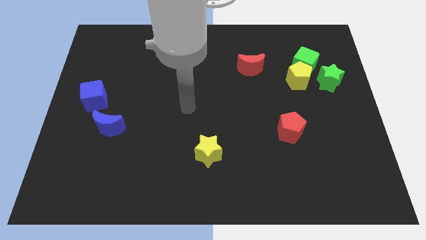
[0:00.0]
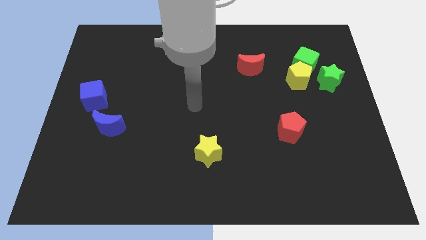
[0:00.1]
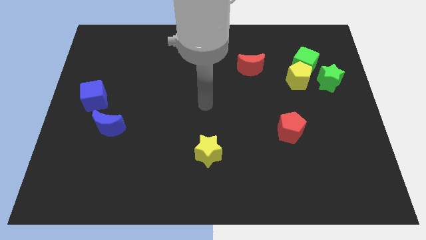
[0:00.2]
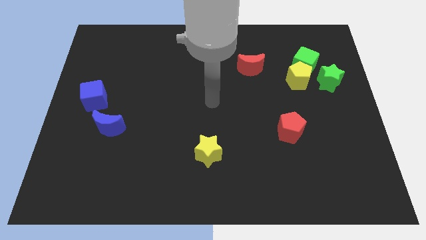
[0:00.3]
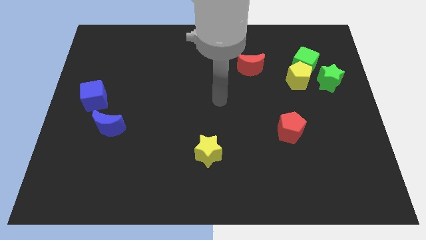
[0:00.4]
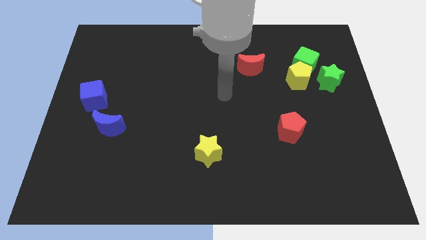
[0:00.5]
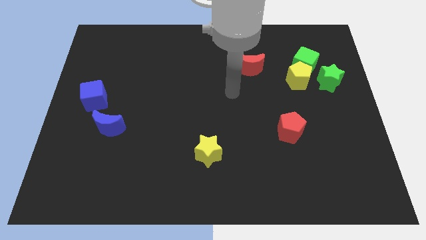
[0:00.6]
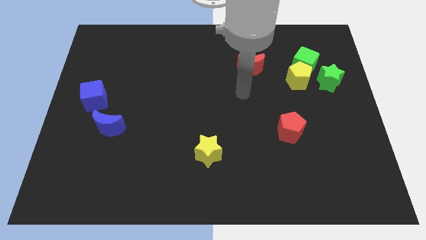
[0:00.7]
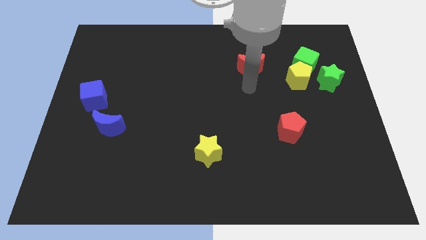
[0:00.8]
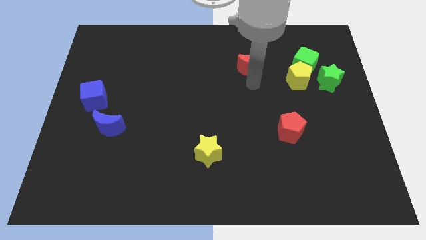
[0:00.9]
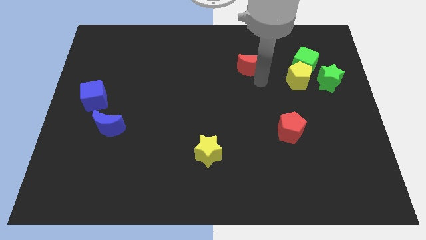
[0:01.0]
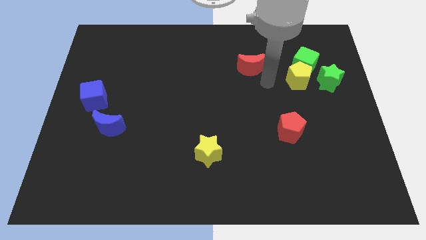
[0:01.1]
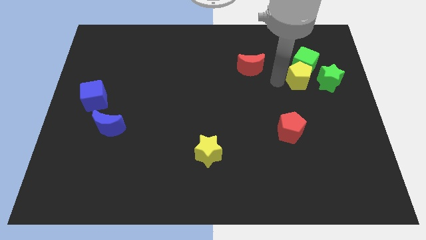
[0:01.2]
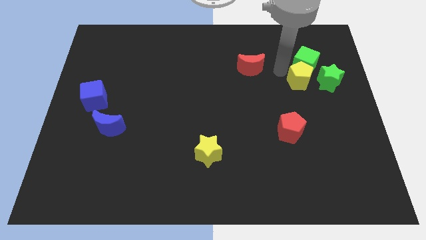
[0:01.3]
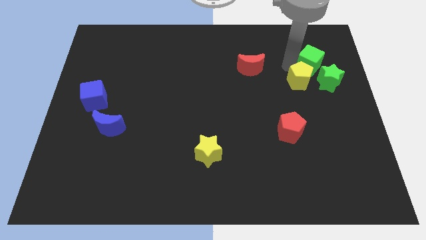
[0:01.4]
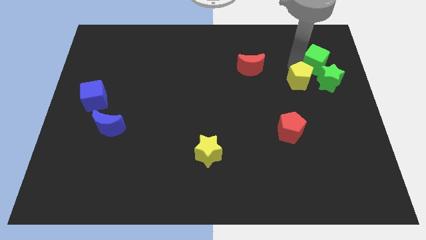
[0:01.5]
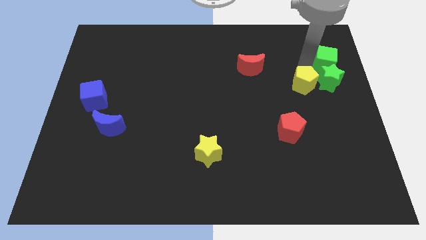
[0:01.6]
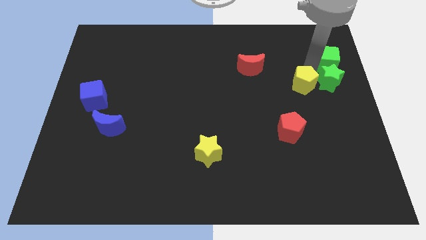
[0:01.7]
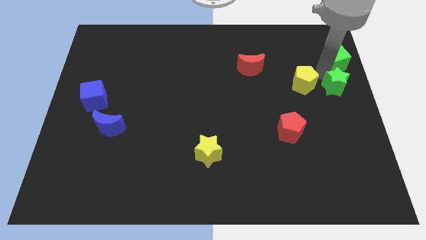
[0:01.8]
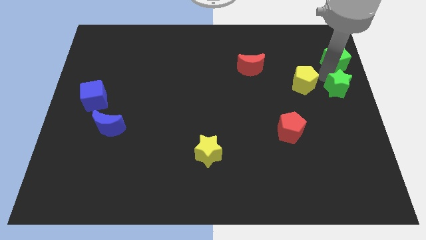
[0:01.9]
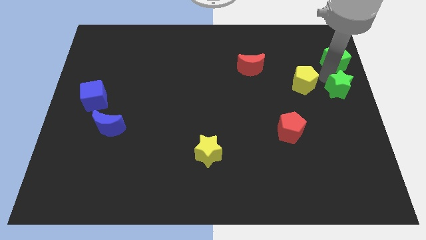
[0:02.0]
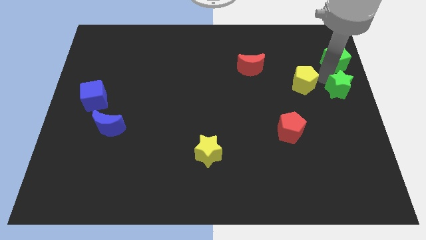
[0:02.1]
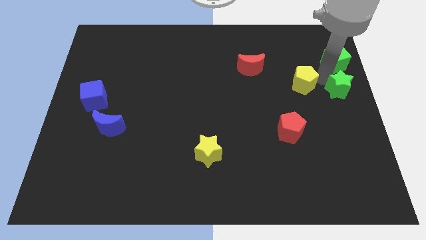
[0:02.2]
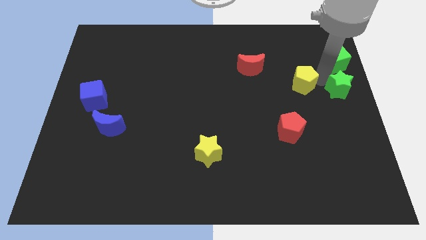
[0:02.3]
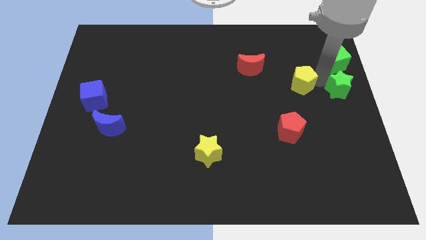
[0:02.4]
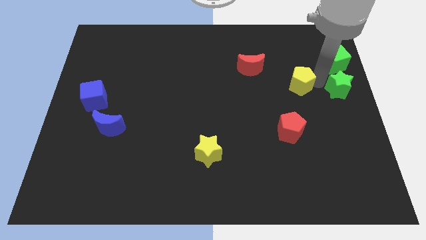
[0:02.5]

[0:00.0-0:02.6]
separate the yellow pentagon from the green cube and green star

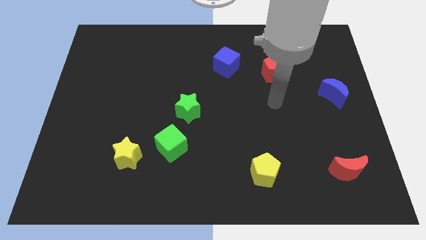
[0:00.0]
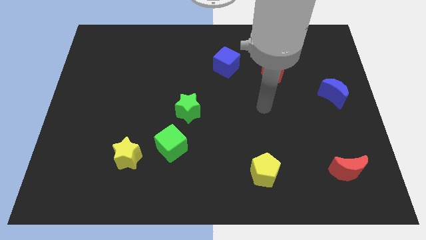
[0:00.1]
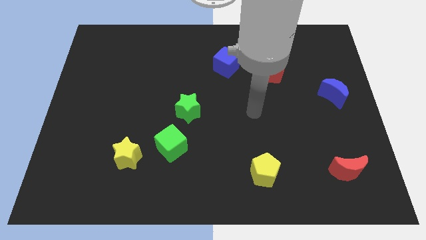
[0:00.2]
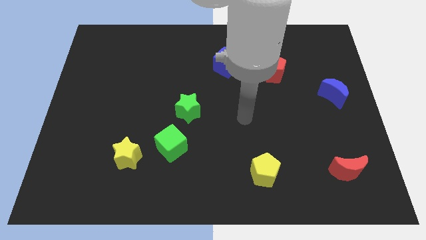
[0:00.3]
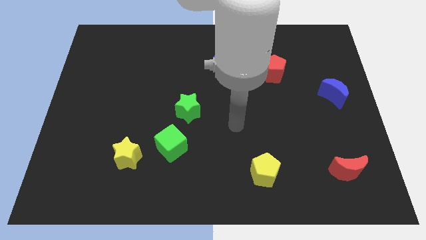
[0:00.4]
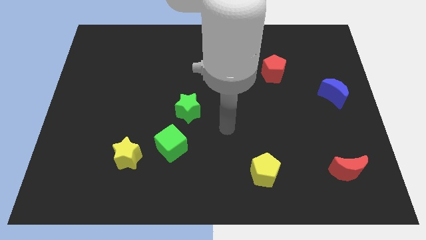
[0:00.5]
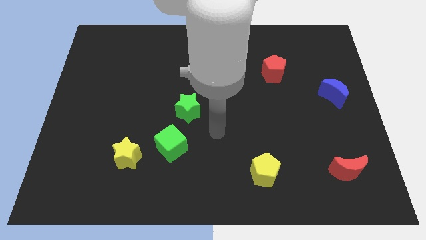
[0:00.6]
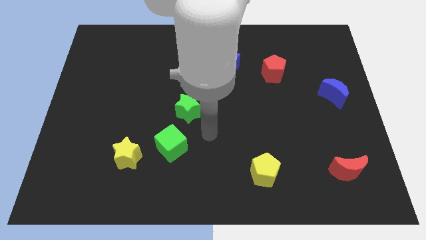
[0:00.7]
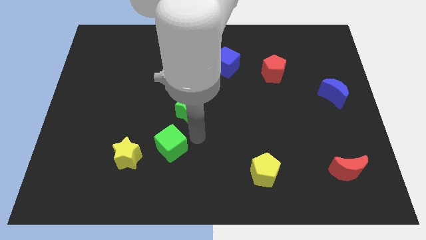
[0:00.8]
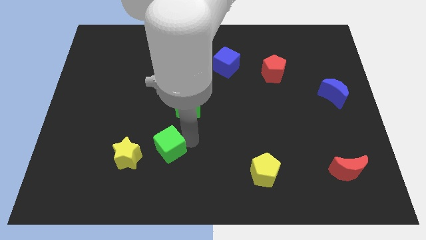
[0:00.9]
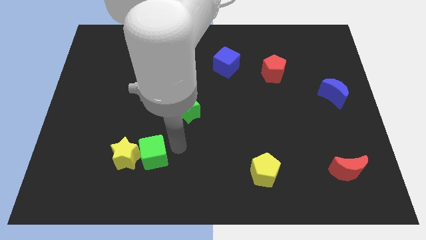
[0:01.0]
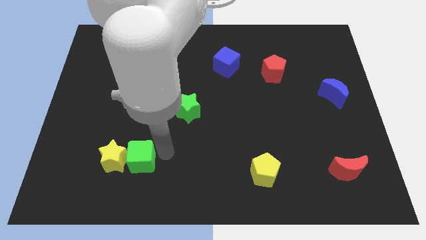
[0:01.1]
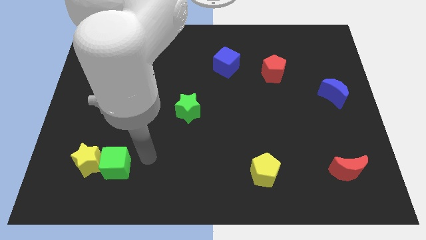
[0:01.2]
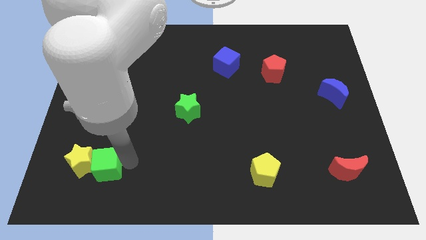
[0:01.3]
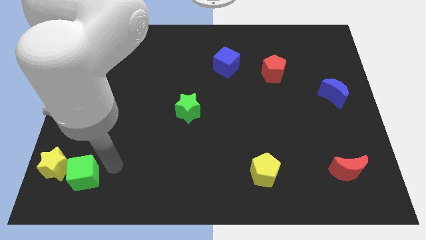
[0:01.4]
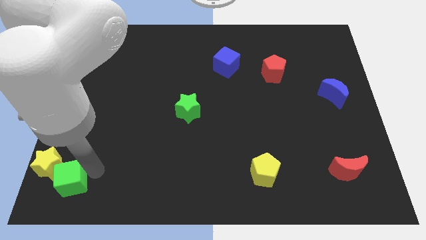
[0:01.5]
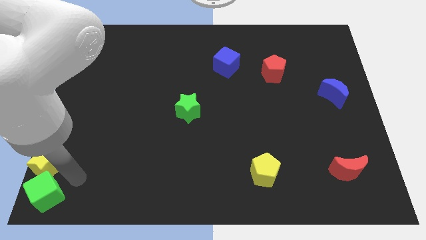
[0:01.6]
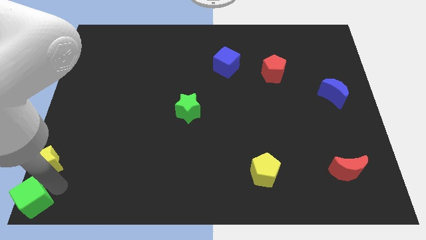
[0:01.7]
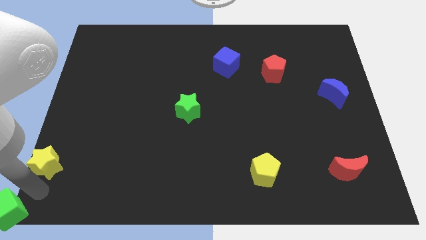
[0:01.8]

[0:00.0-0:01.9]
separate the yellow star from the green cube

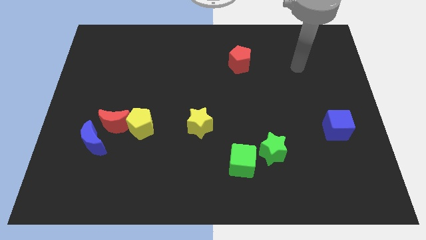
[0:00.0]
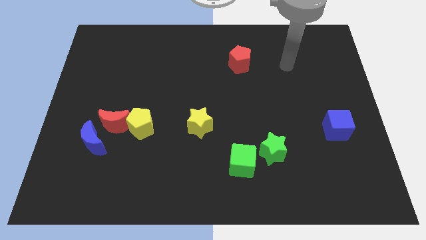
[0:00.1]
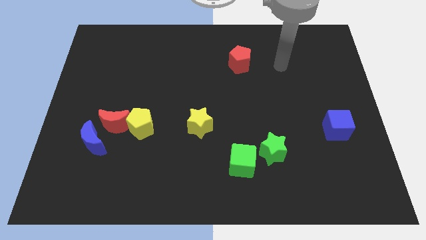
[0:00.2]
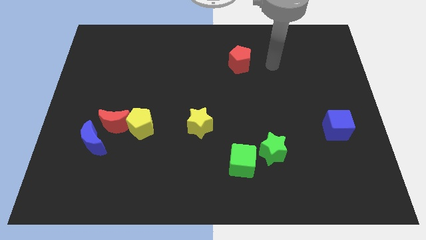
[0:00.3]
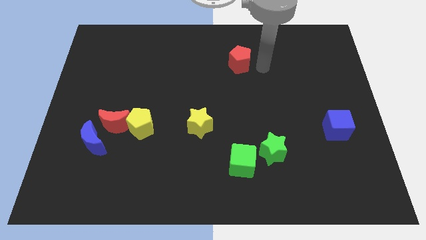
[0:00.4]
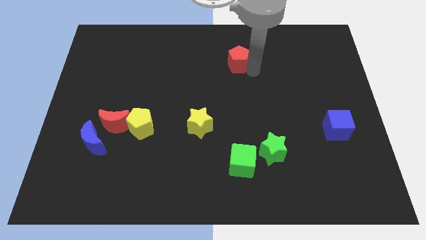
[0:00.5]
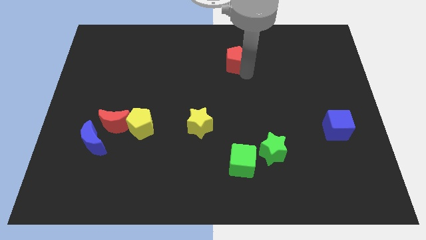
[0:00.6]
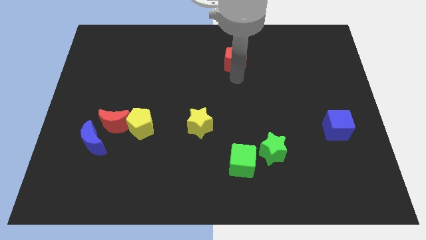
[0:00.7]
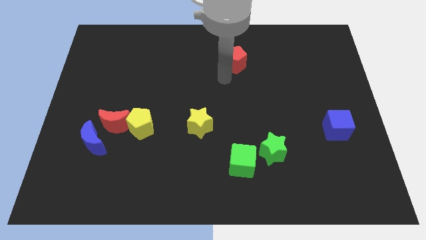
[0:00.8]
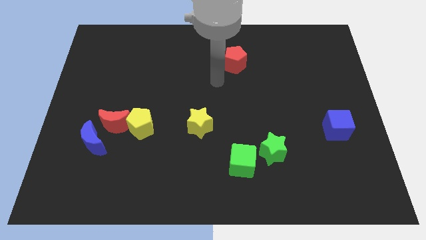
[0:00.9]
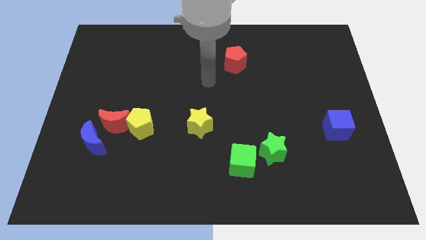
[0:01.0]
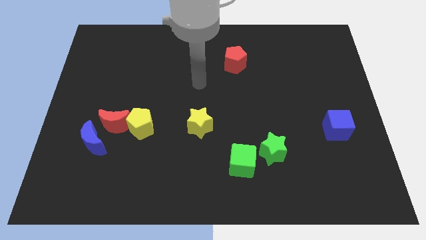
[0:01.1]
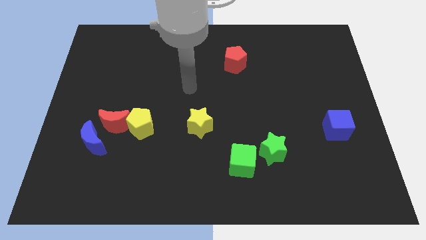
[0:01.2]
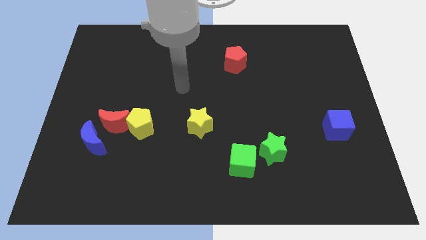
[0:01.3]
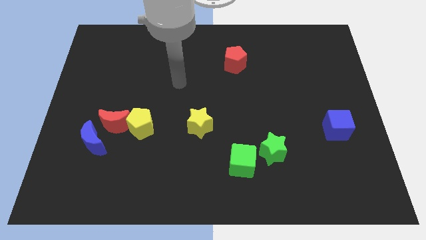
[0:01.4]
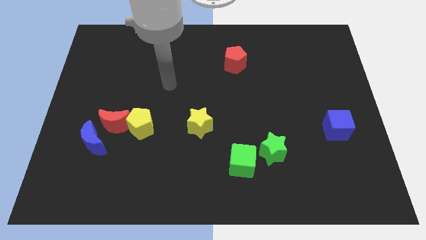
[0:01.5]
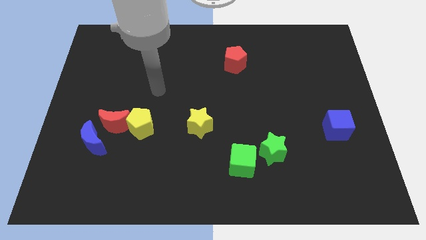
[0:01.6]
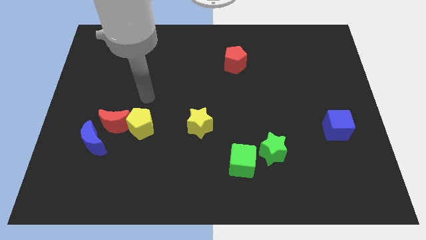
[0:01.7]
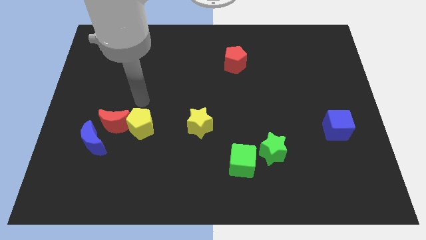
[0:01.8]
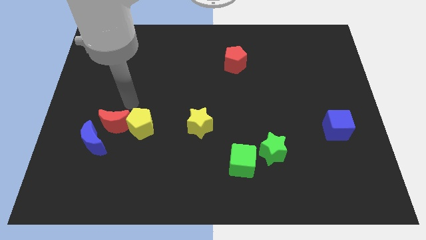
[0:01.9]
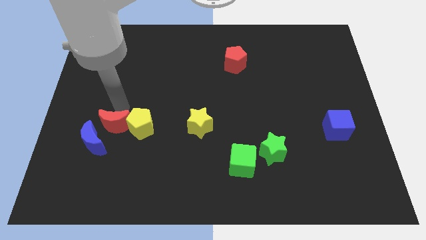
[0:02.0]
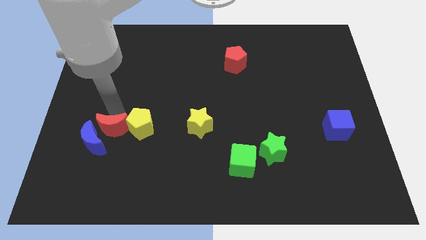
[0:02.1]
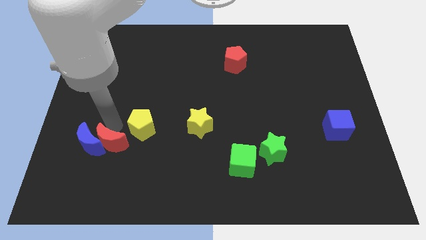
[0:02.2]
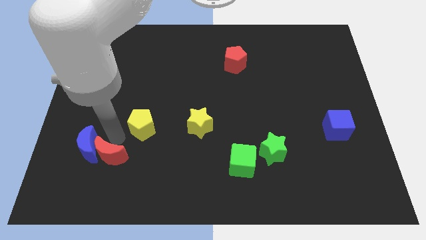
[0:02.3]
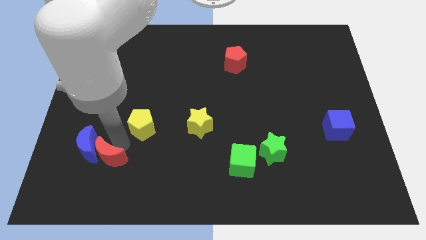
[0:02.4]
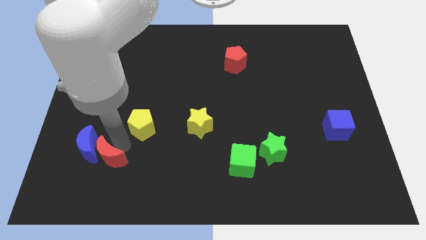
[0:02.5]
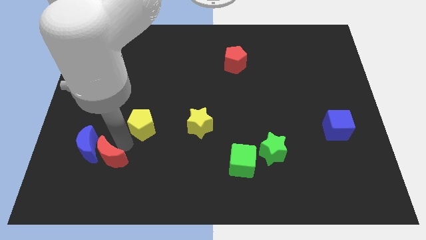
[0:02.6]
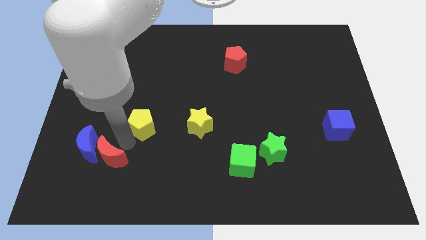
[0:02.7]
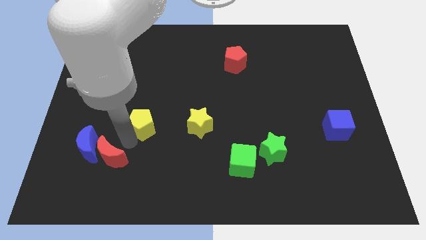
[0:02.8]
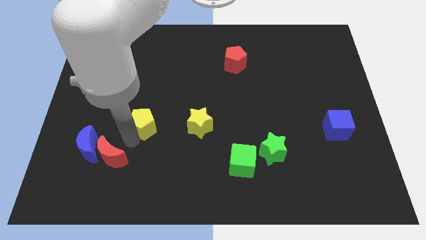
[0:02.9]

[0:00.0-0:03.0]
separate the yellow pentagon from the red moon

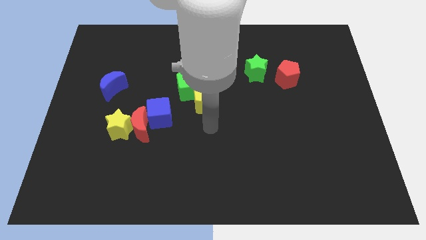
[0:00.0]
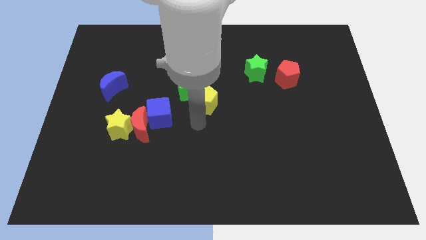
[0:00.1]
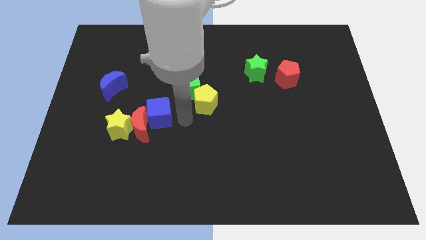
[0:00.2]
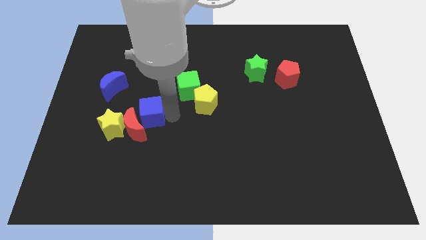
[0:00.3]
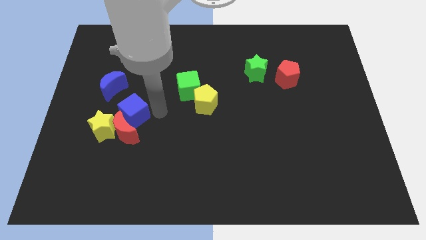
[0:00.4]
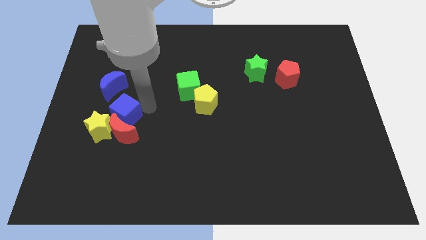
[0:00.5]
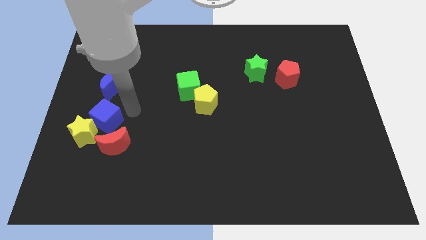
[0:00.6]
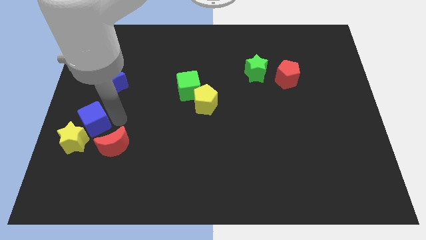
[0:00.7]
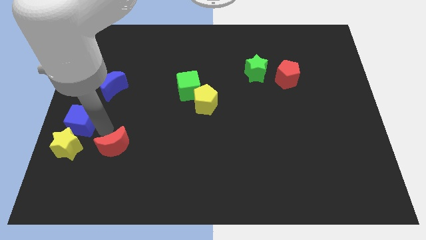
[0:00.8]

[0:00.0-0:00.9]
separate the red moon from the yellow star and blue cube

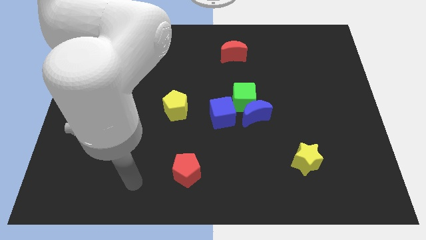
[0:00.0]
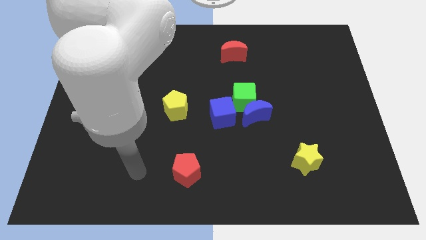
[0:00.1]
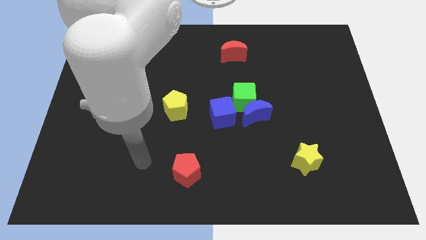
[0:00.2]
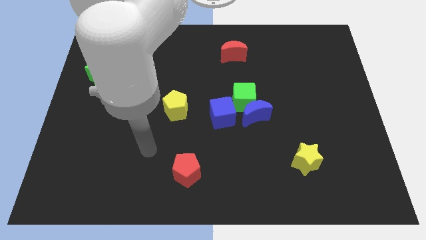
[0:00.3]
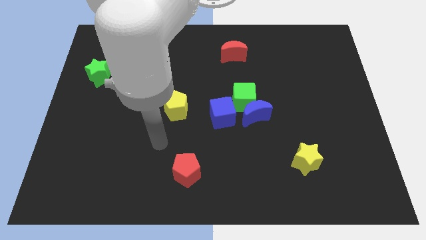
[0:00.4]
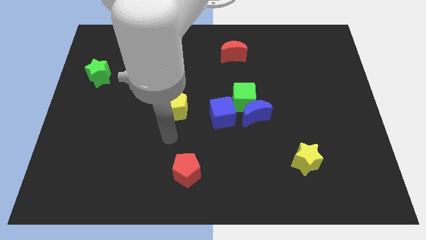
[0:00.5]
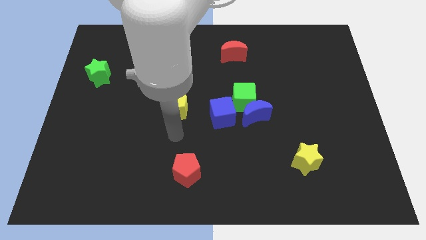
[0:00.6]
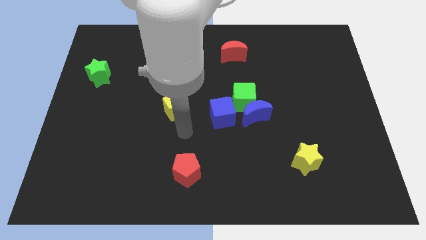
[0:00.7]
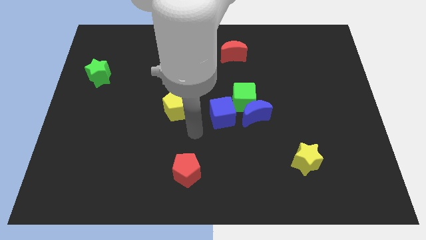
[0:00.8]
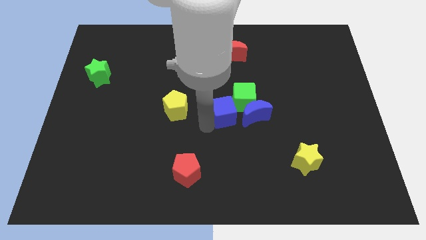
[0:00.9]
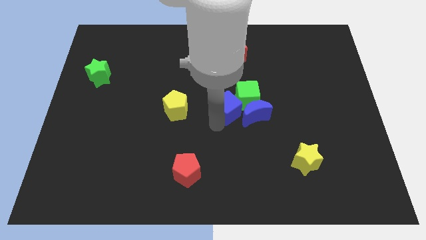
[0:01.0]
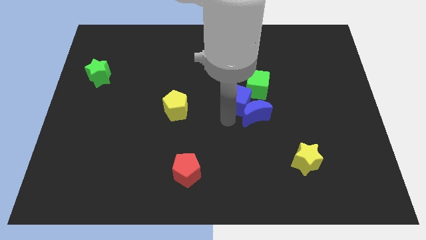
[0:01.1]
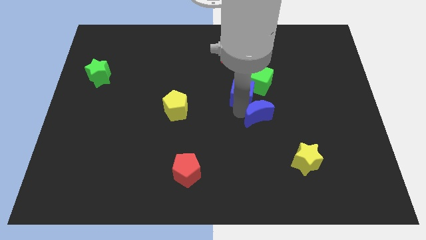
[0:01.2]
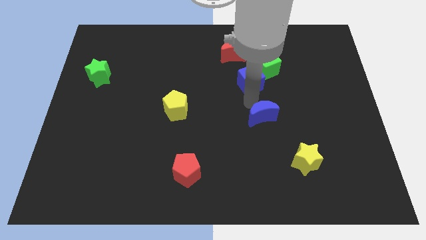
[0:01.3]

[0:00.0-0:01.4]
pull the green cube apart from the blue moon and blue cube
